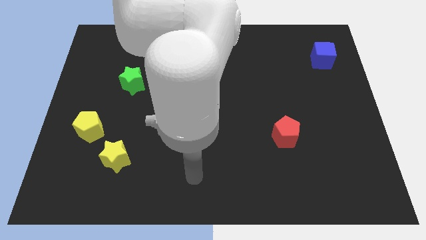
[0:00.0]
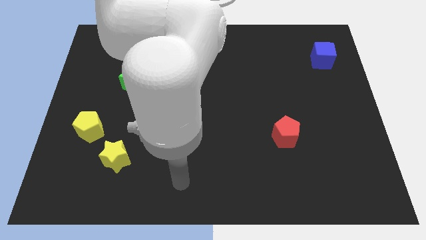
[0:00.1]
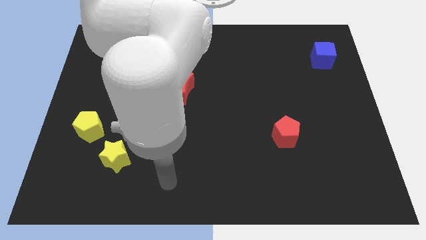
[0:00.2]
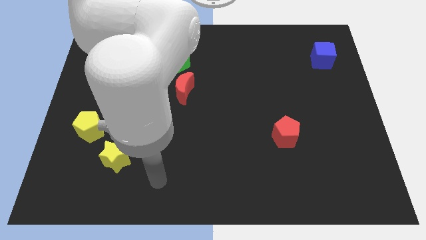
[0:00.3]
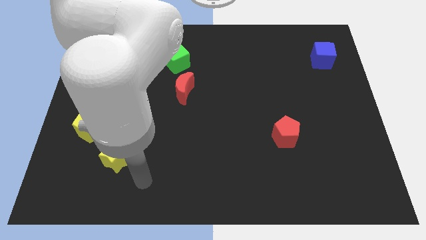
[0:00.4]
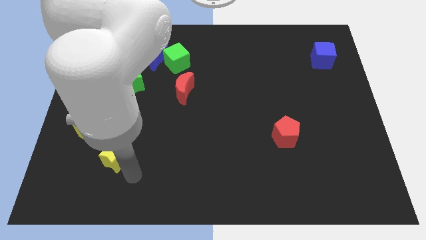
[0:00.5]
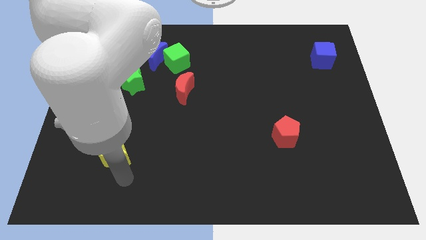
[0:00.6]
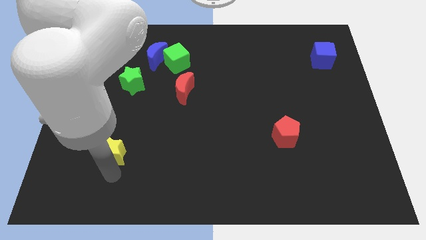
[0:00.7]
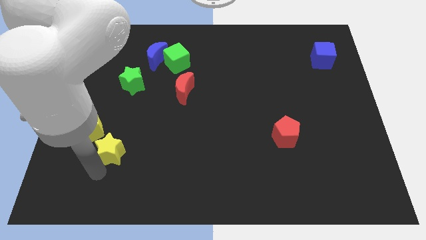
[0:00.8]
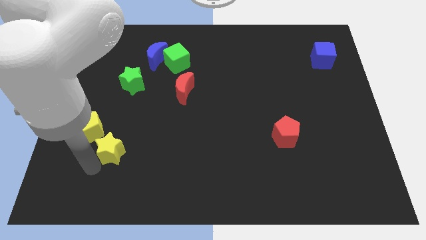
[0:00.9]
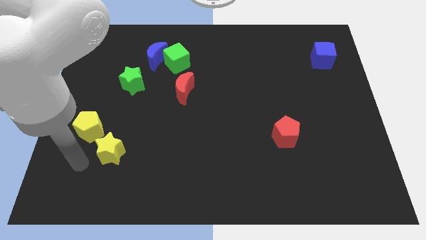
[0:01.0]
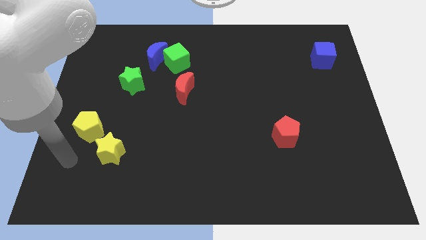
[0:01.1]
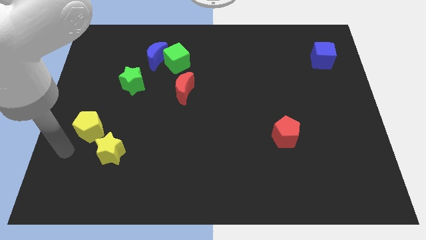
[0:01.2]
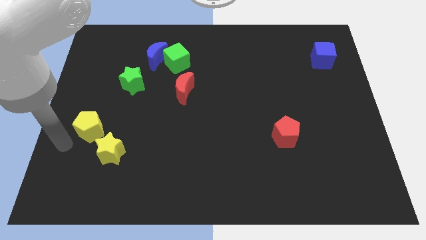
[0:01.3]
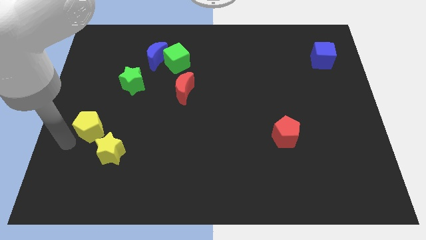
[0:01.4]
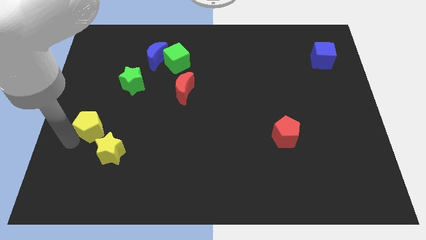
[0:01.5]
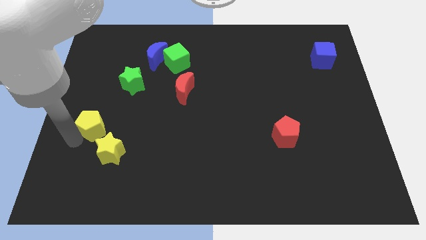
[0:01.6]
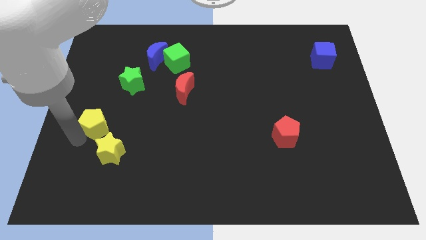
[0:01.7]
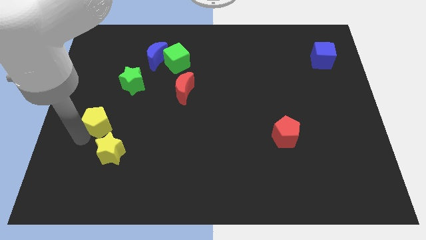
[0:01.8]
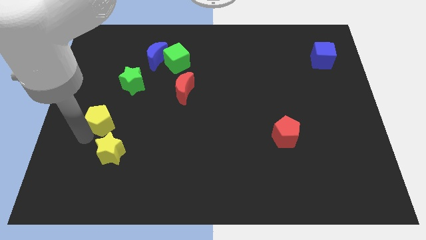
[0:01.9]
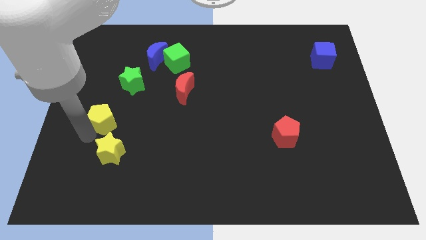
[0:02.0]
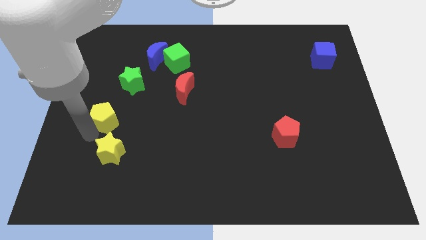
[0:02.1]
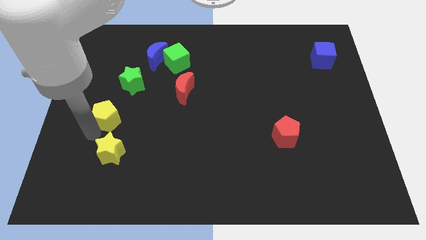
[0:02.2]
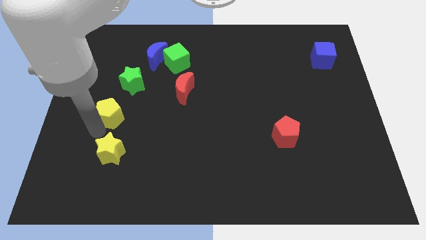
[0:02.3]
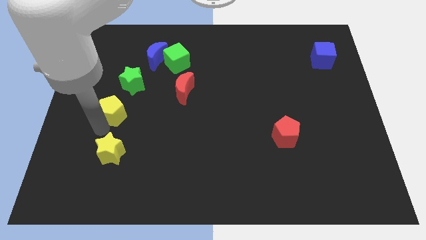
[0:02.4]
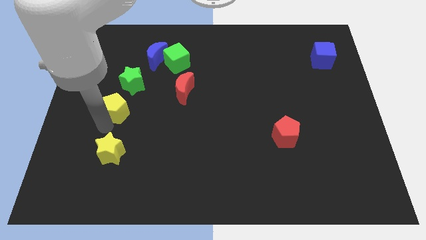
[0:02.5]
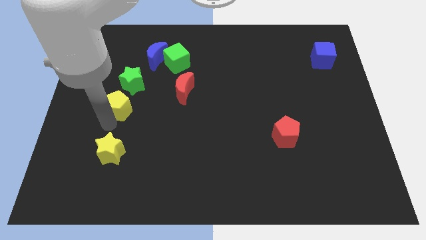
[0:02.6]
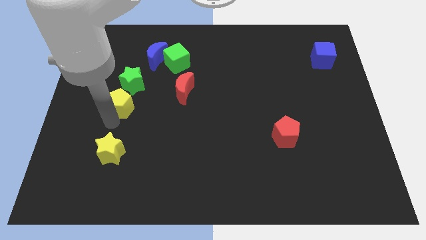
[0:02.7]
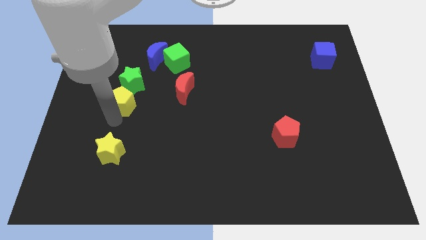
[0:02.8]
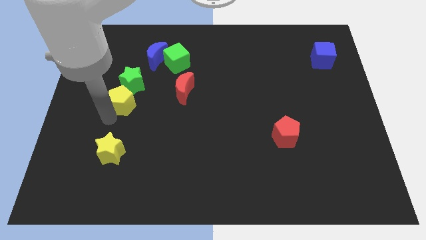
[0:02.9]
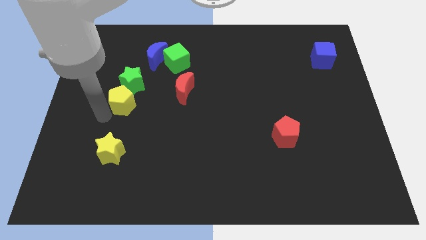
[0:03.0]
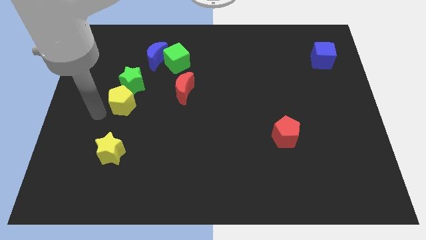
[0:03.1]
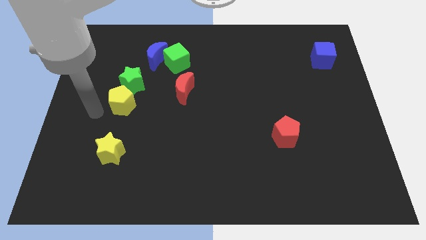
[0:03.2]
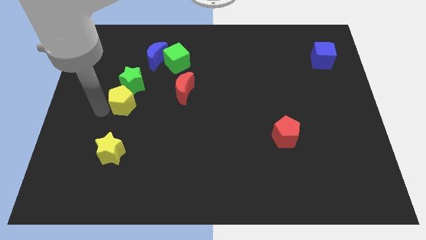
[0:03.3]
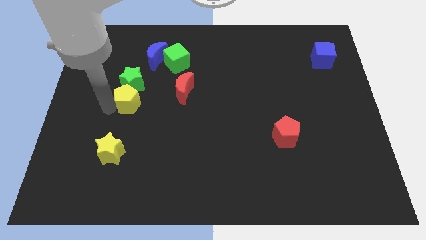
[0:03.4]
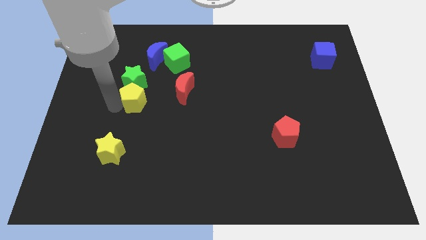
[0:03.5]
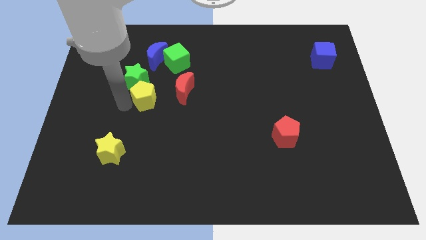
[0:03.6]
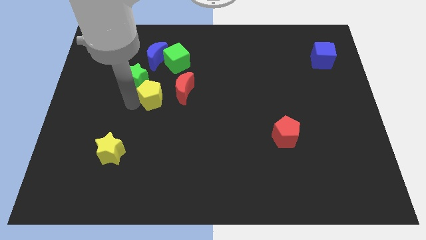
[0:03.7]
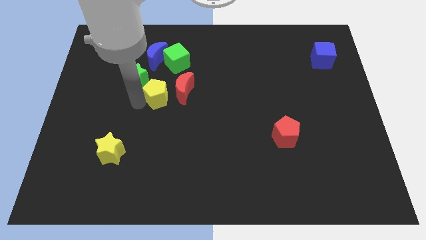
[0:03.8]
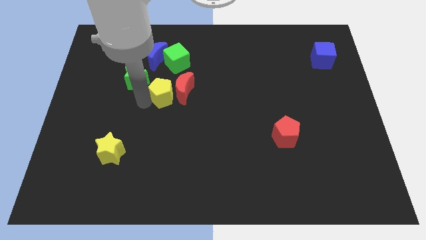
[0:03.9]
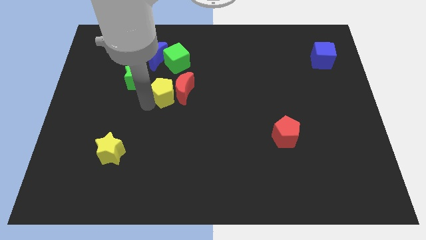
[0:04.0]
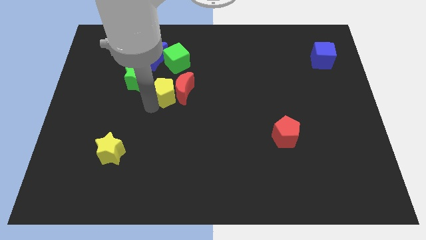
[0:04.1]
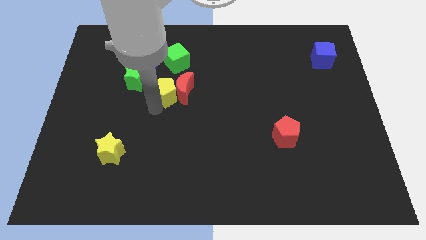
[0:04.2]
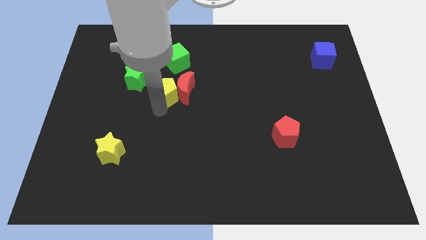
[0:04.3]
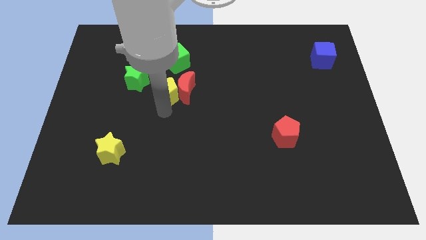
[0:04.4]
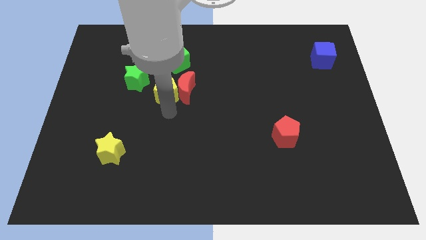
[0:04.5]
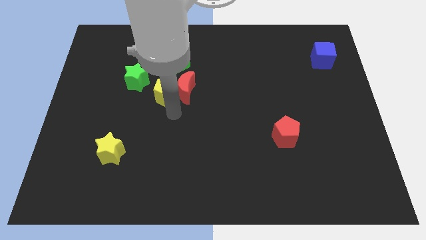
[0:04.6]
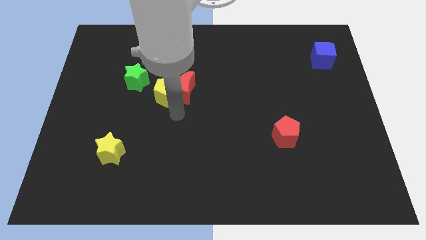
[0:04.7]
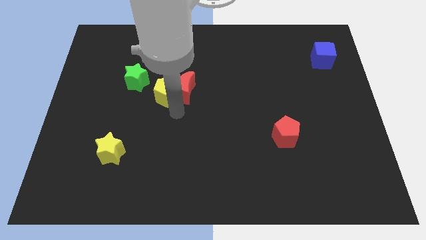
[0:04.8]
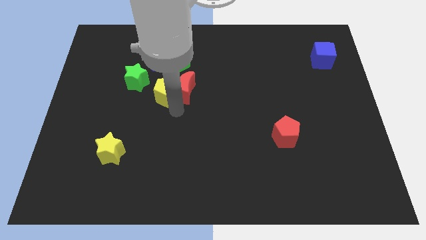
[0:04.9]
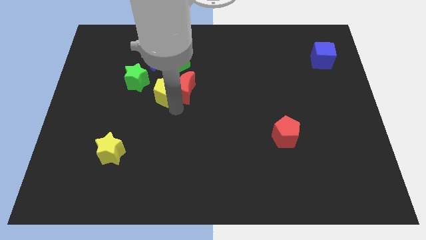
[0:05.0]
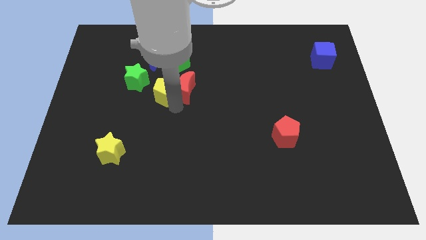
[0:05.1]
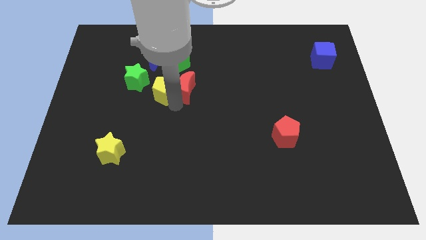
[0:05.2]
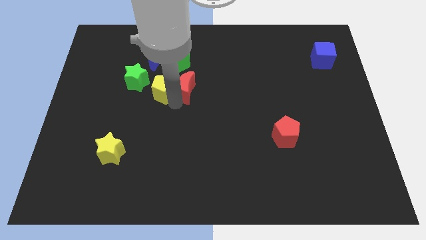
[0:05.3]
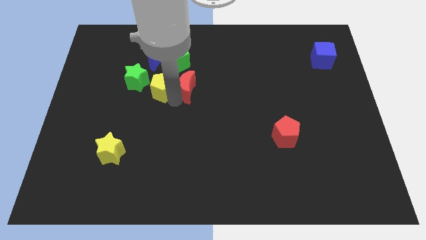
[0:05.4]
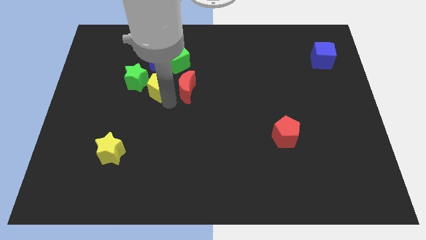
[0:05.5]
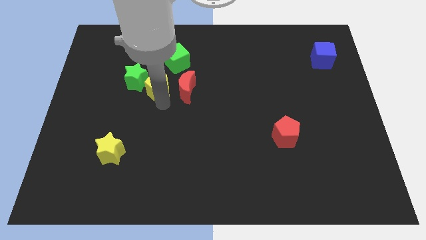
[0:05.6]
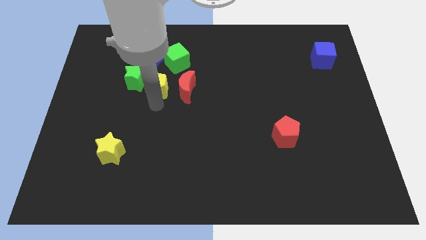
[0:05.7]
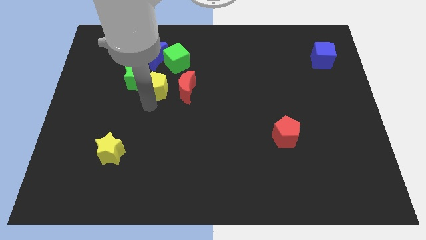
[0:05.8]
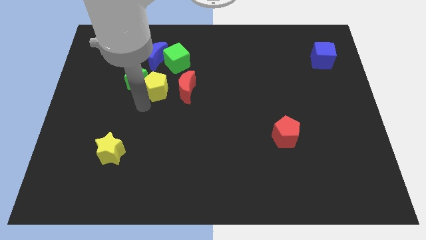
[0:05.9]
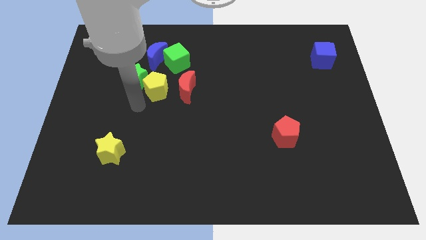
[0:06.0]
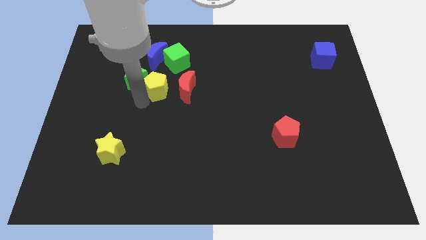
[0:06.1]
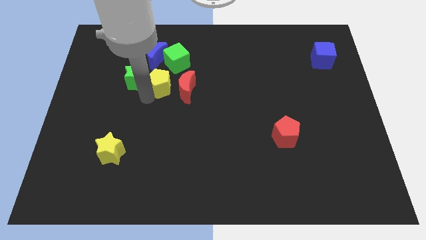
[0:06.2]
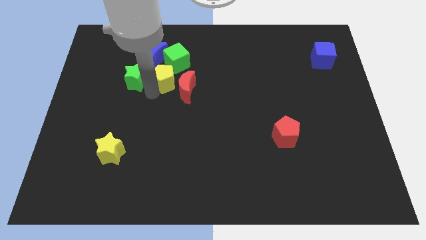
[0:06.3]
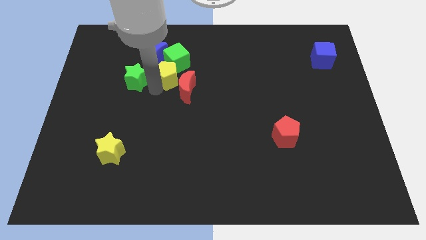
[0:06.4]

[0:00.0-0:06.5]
put the yellow pentagon towards the green cube

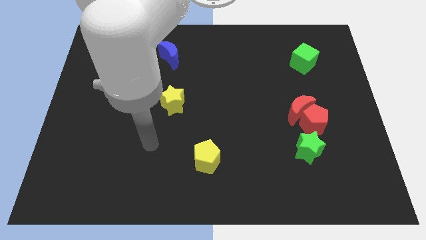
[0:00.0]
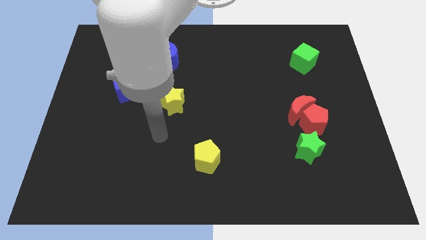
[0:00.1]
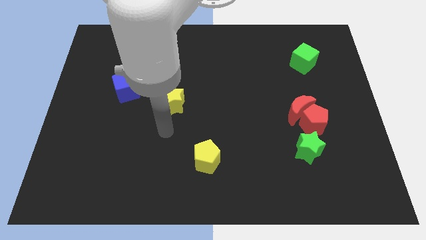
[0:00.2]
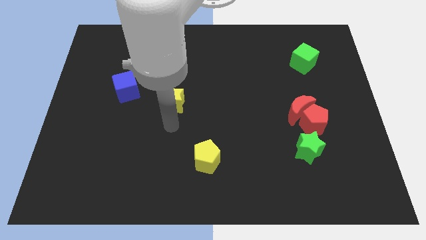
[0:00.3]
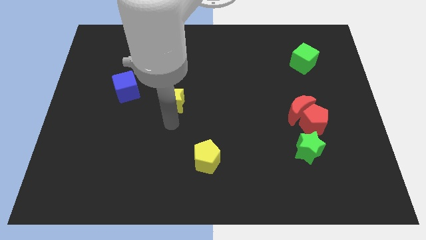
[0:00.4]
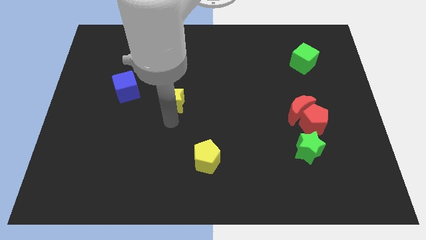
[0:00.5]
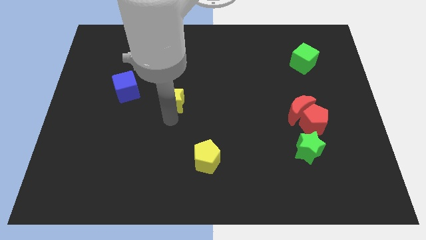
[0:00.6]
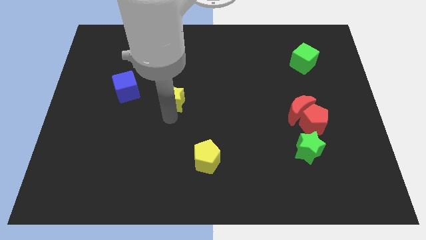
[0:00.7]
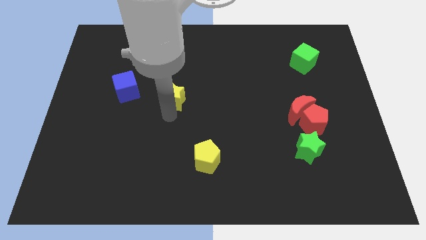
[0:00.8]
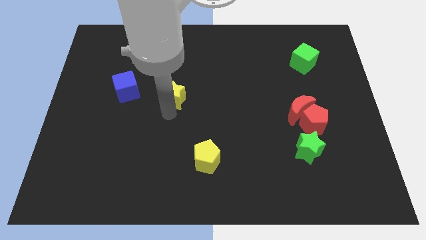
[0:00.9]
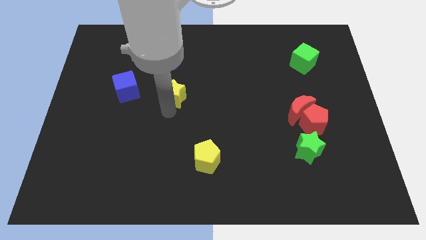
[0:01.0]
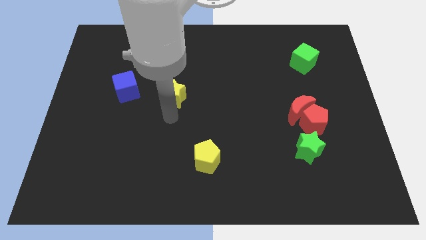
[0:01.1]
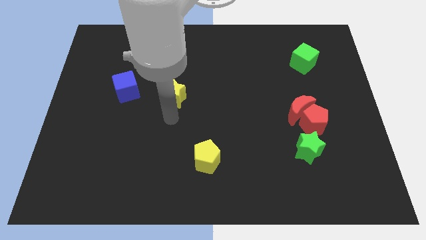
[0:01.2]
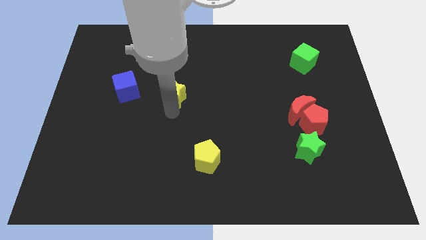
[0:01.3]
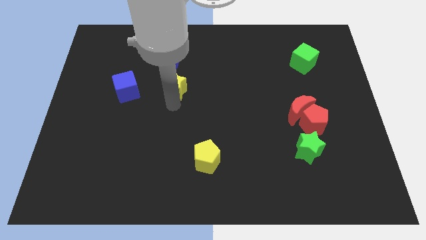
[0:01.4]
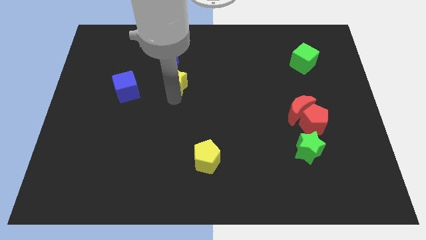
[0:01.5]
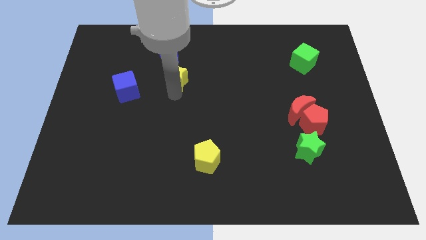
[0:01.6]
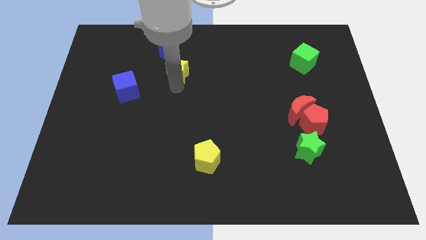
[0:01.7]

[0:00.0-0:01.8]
slide the yellow star towards the blue moon
